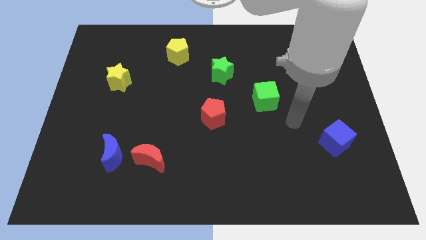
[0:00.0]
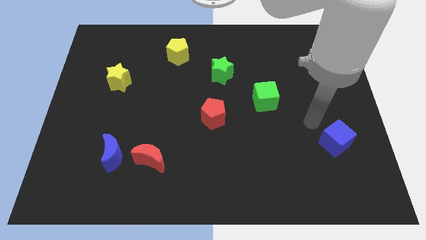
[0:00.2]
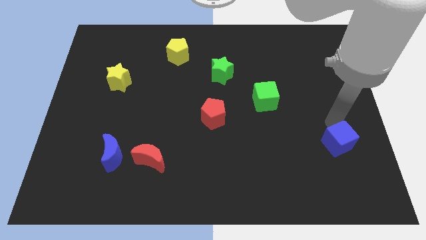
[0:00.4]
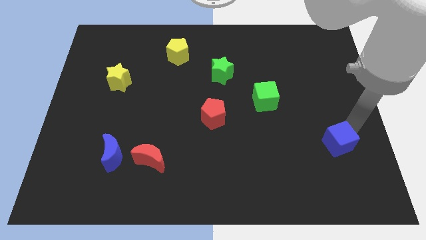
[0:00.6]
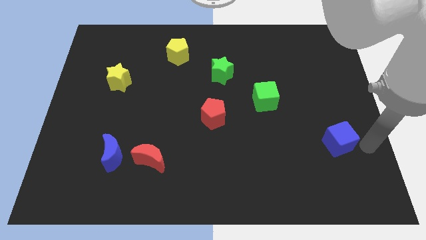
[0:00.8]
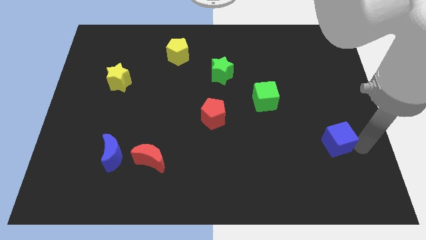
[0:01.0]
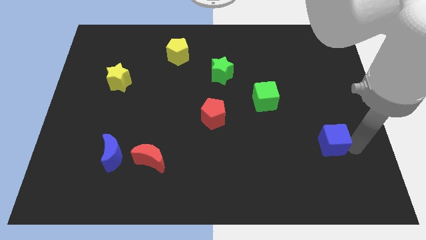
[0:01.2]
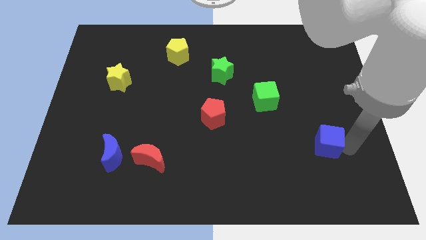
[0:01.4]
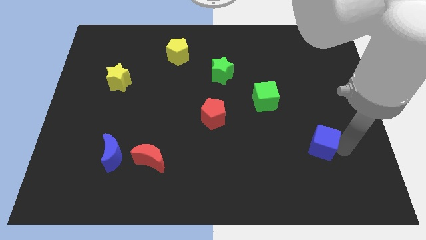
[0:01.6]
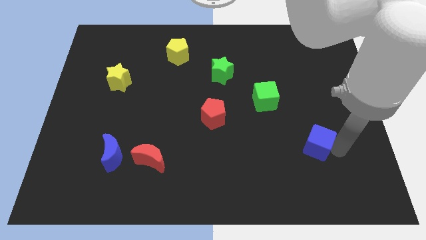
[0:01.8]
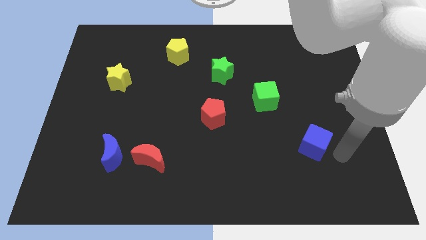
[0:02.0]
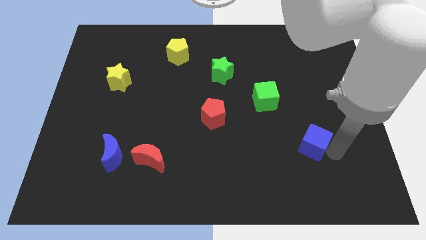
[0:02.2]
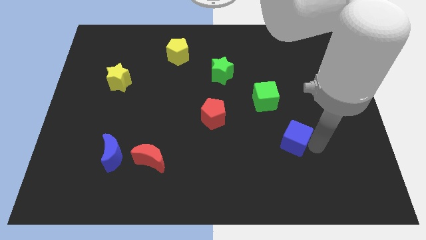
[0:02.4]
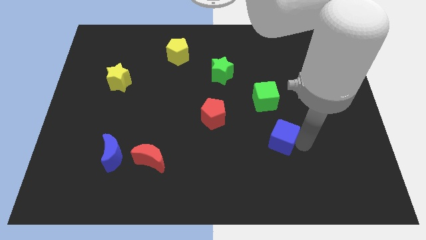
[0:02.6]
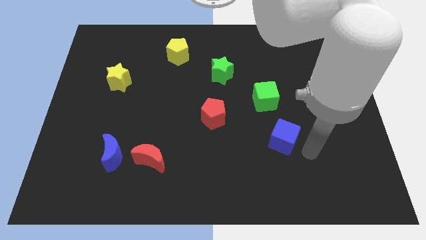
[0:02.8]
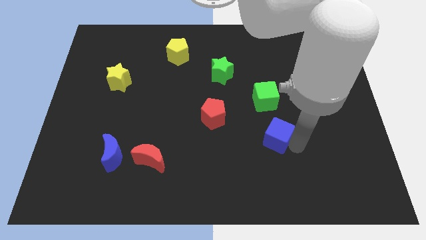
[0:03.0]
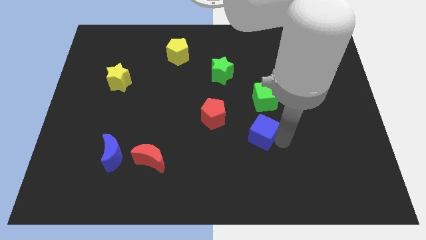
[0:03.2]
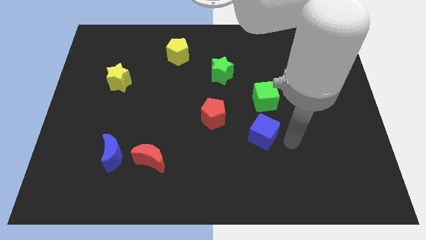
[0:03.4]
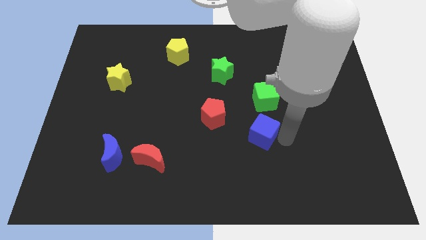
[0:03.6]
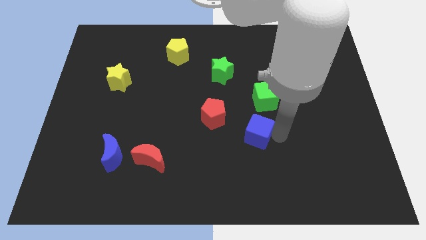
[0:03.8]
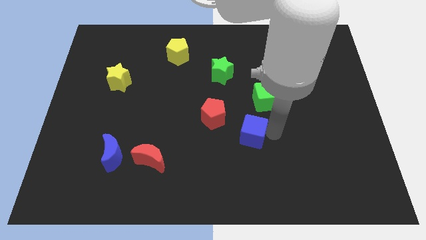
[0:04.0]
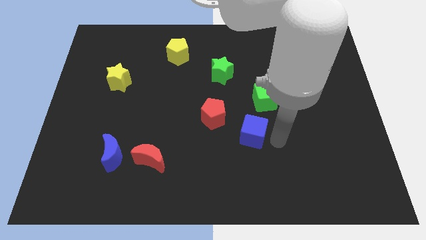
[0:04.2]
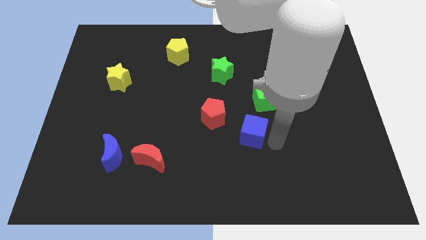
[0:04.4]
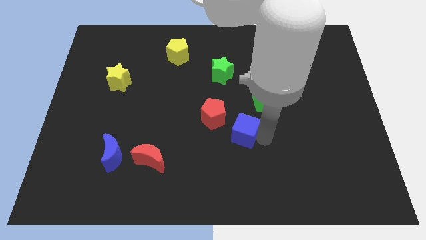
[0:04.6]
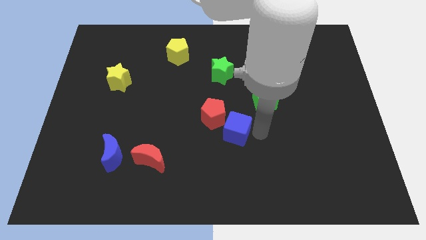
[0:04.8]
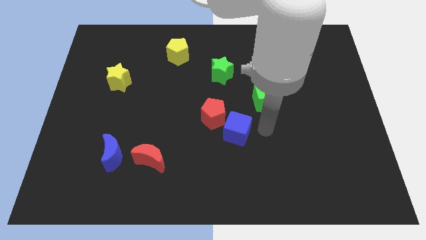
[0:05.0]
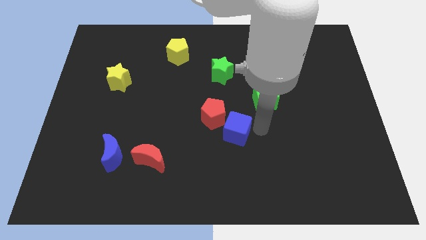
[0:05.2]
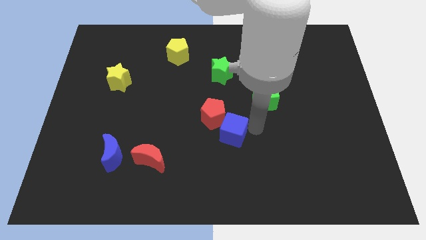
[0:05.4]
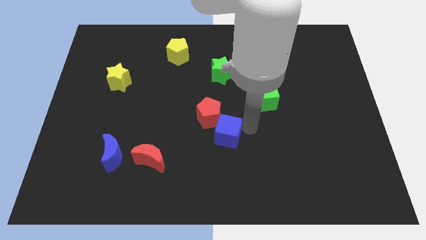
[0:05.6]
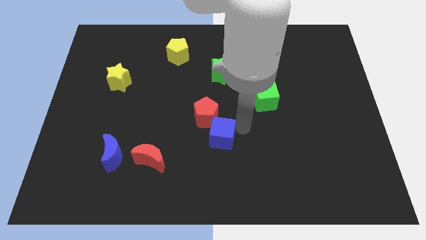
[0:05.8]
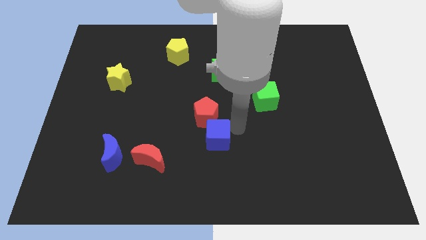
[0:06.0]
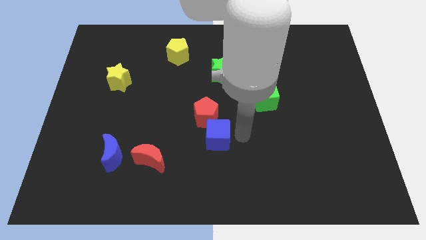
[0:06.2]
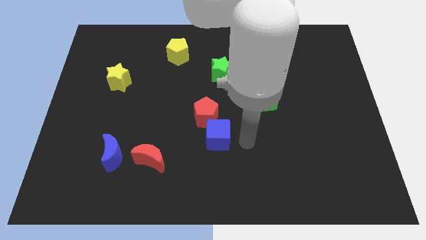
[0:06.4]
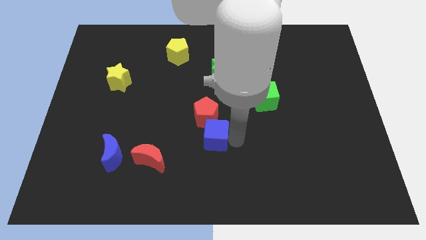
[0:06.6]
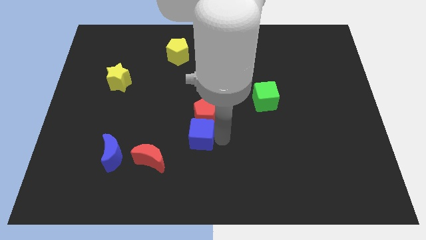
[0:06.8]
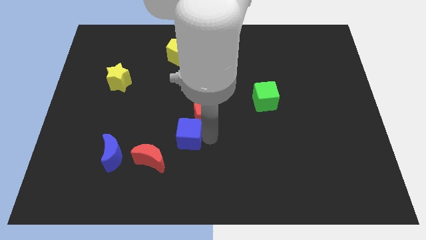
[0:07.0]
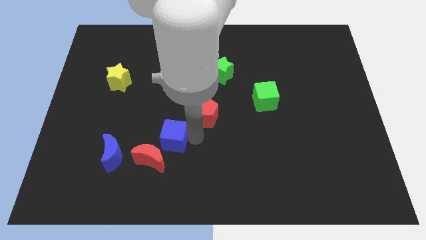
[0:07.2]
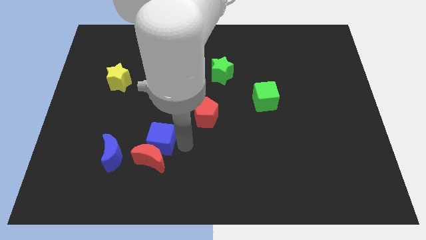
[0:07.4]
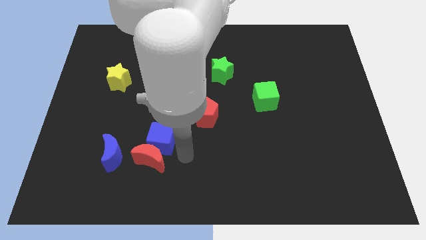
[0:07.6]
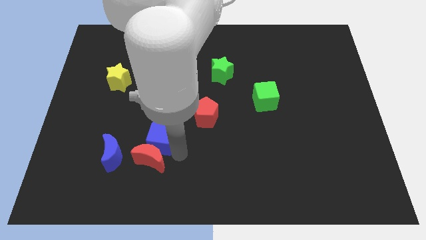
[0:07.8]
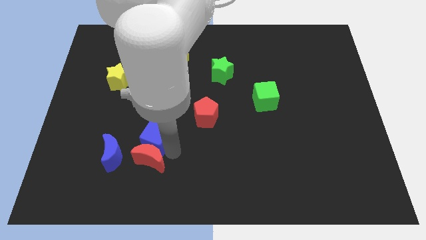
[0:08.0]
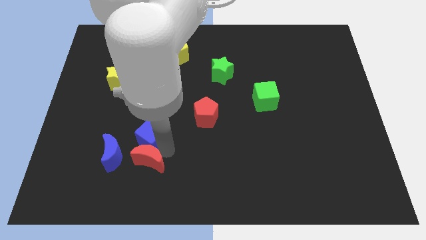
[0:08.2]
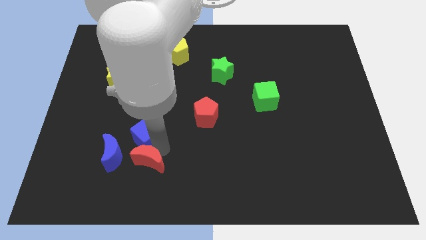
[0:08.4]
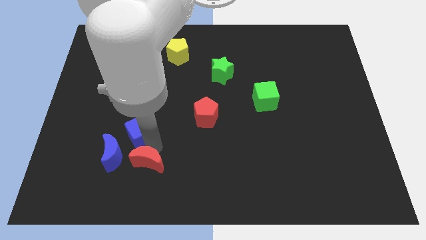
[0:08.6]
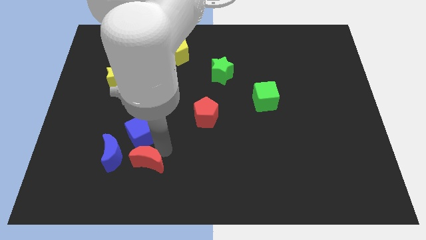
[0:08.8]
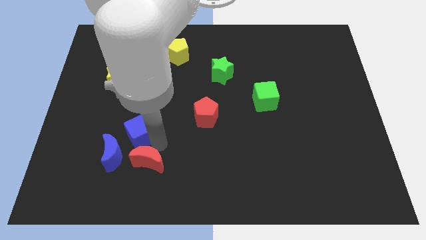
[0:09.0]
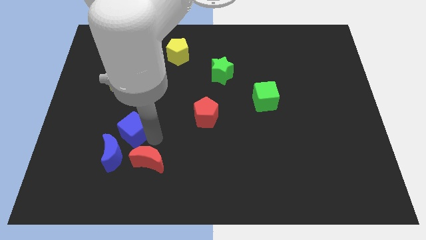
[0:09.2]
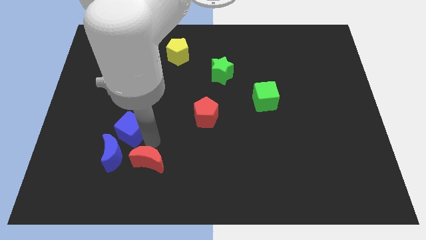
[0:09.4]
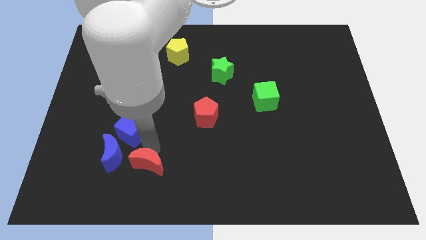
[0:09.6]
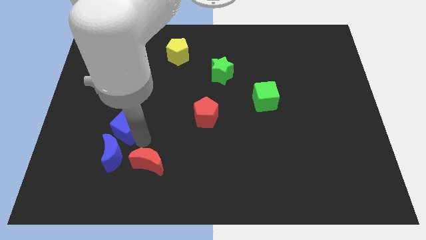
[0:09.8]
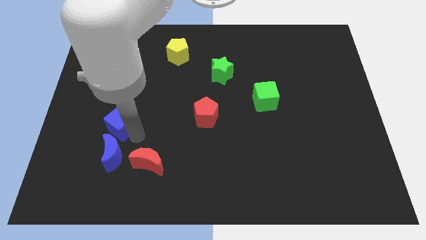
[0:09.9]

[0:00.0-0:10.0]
push the blue cube to the bottom of the yellow star

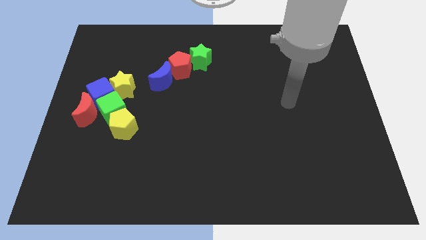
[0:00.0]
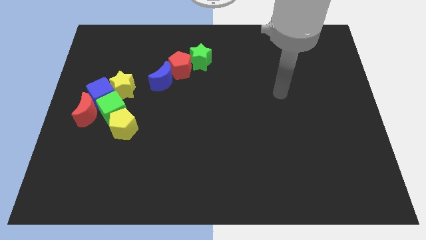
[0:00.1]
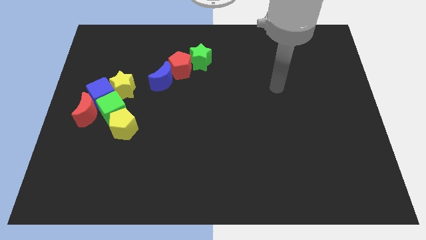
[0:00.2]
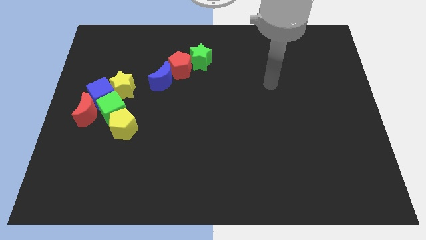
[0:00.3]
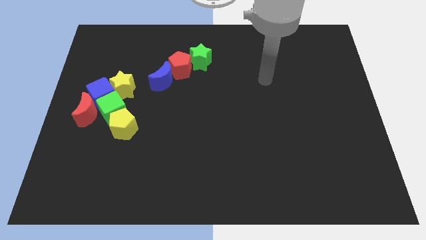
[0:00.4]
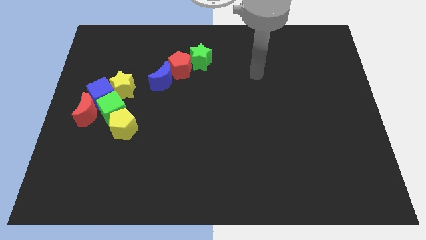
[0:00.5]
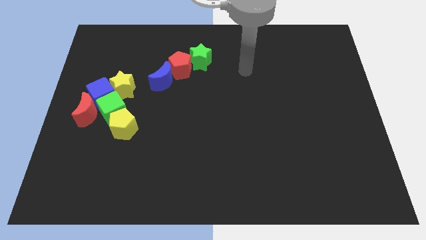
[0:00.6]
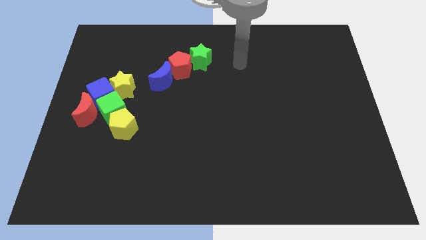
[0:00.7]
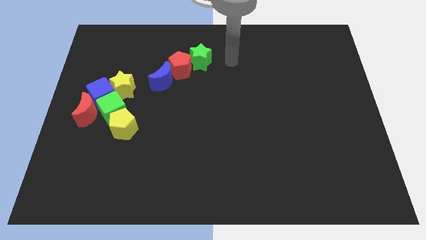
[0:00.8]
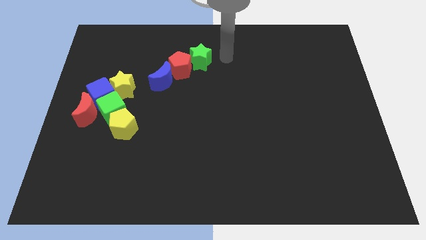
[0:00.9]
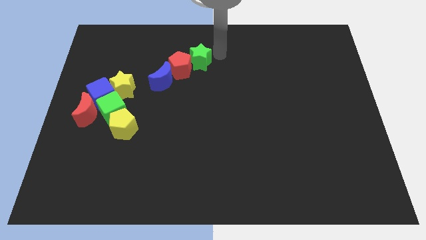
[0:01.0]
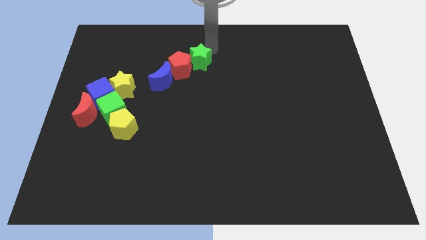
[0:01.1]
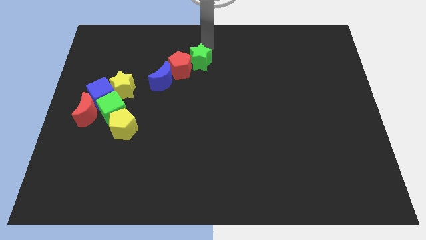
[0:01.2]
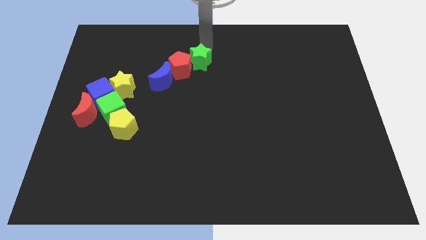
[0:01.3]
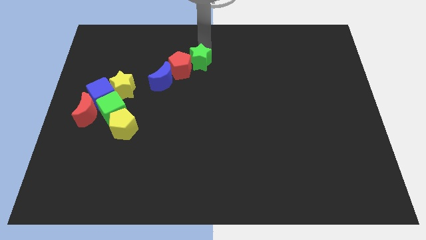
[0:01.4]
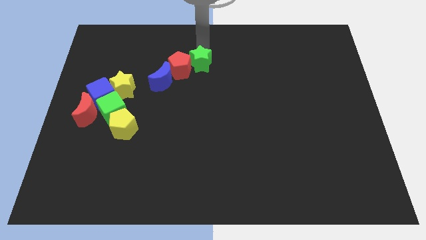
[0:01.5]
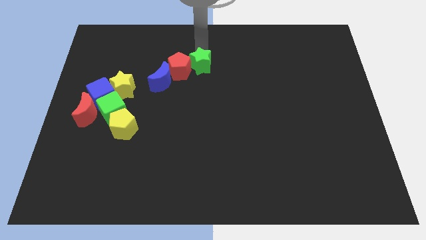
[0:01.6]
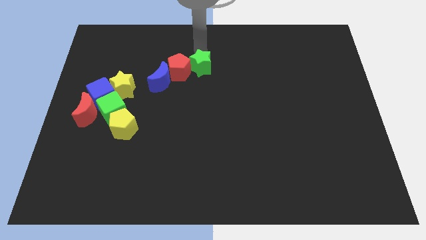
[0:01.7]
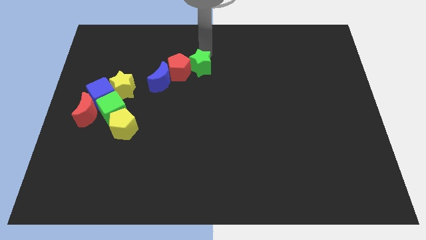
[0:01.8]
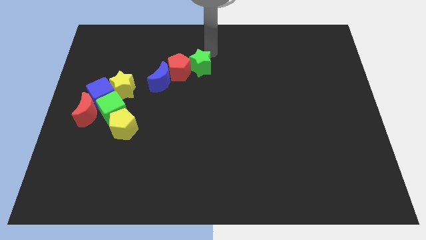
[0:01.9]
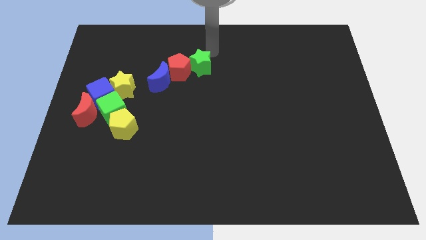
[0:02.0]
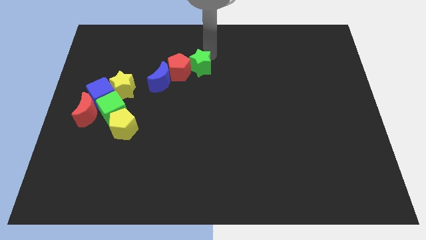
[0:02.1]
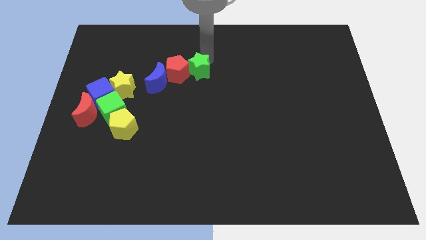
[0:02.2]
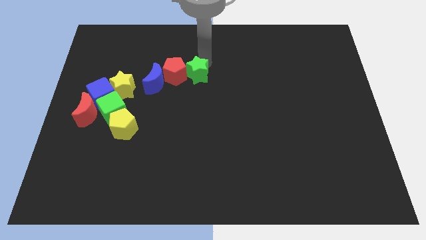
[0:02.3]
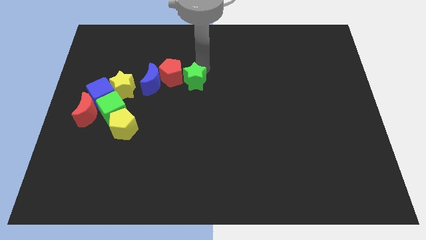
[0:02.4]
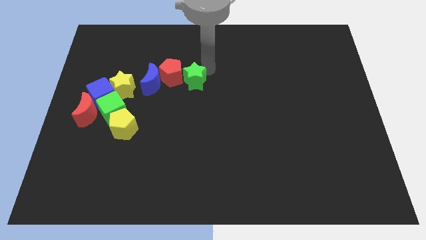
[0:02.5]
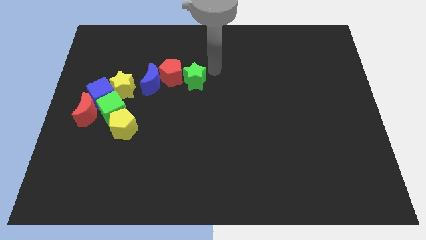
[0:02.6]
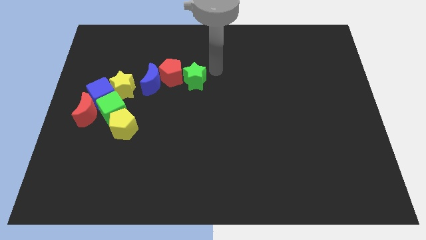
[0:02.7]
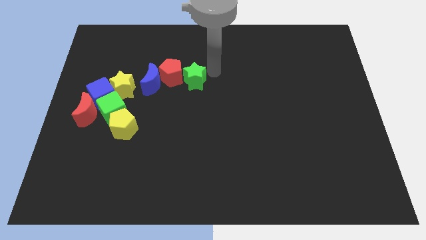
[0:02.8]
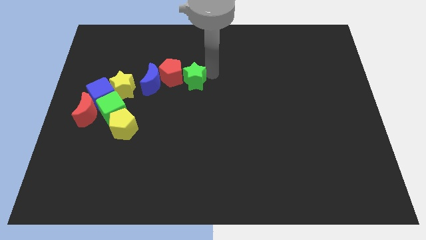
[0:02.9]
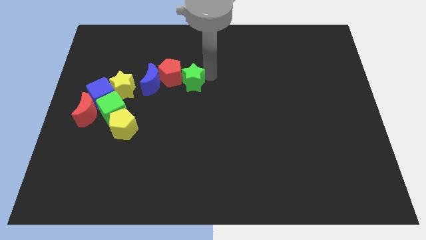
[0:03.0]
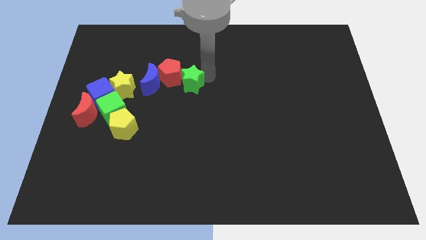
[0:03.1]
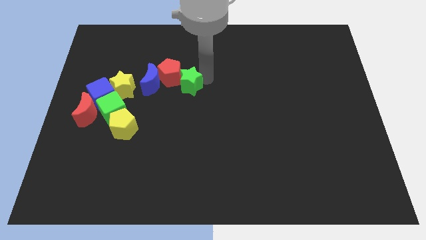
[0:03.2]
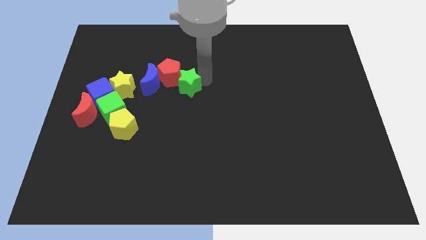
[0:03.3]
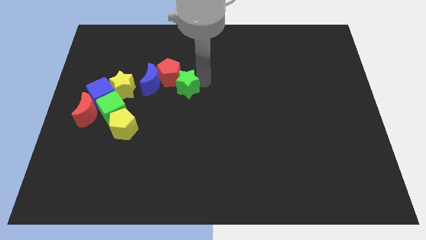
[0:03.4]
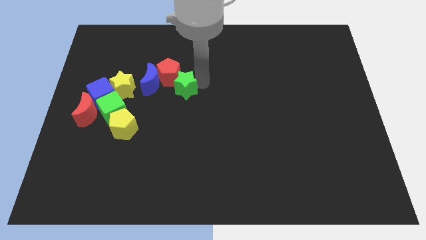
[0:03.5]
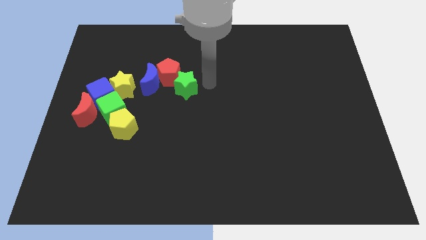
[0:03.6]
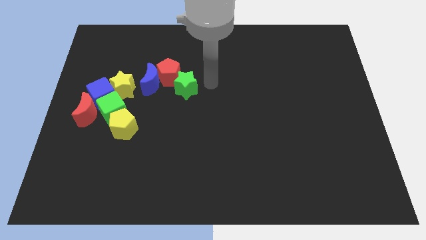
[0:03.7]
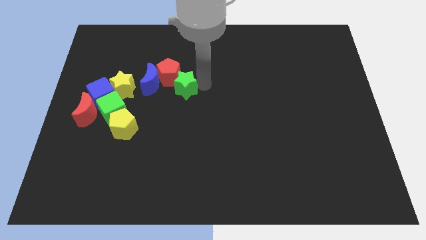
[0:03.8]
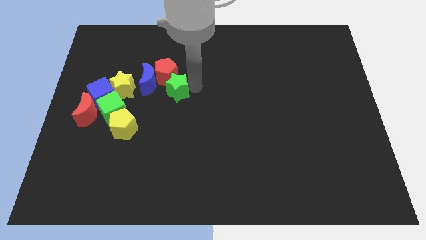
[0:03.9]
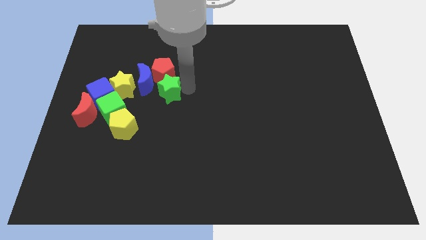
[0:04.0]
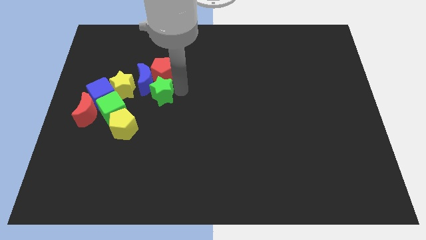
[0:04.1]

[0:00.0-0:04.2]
push the green star to the bottom left side of the red pentagon
